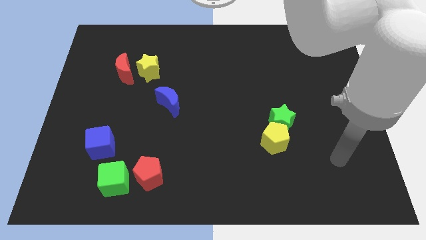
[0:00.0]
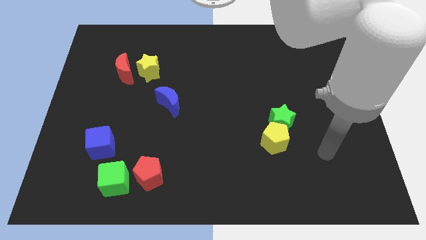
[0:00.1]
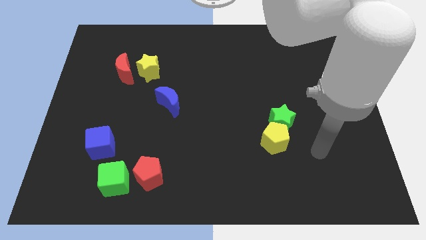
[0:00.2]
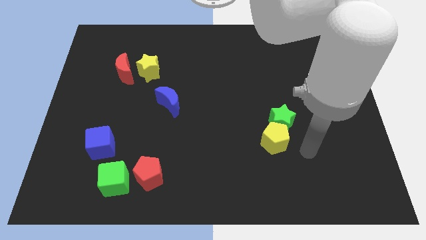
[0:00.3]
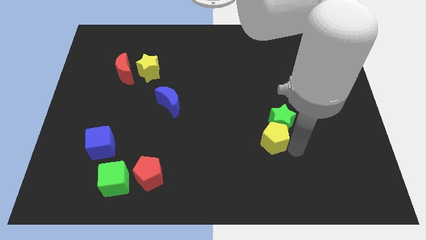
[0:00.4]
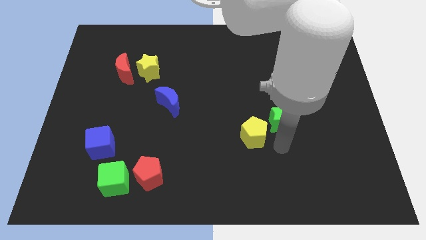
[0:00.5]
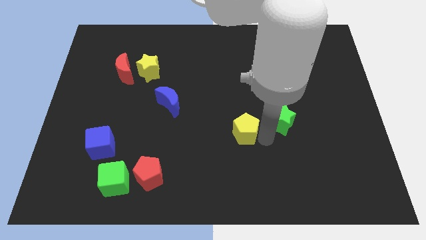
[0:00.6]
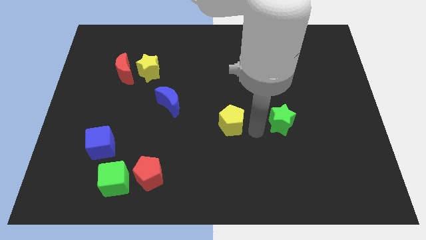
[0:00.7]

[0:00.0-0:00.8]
pull the green star apart from the yellow pentagon

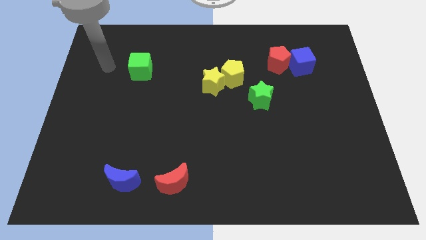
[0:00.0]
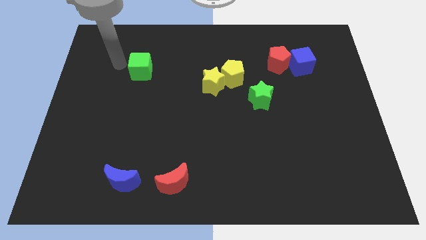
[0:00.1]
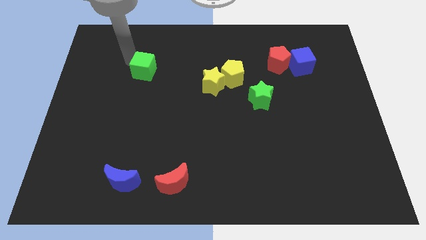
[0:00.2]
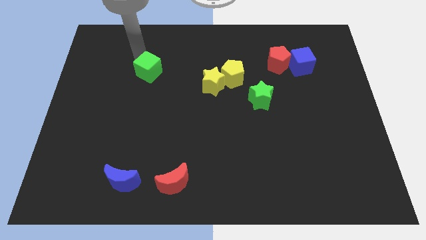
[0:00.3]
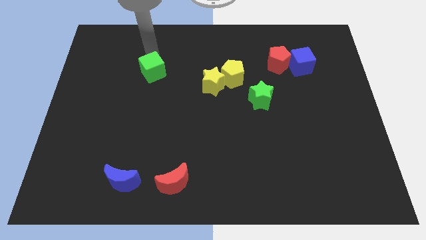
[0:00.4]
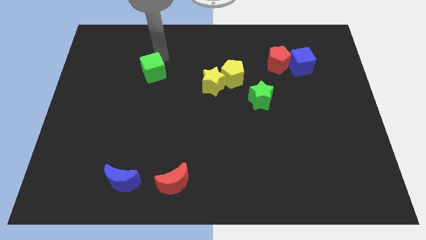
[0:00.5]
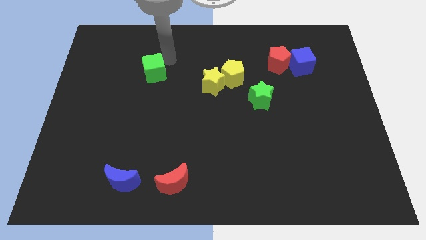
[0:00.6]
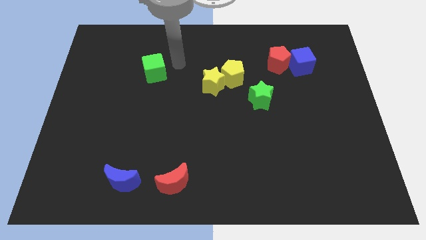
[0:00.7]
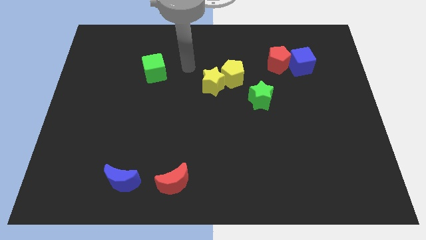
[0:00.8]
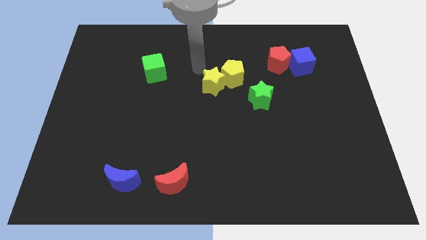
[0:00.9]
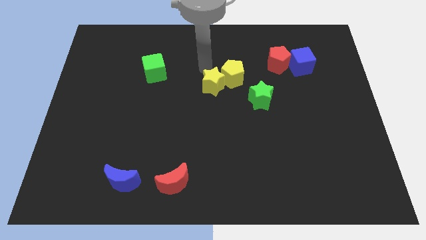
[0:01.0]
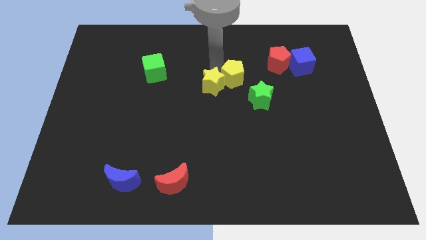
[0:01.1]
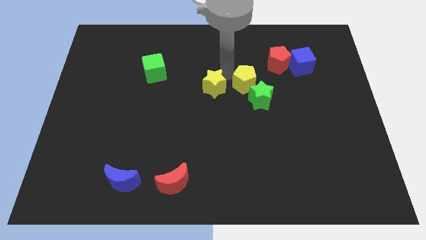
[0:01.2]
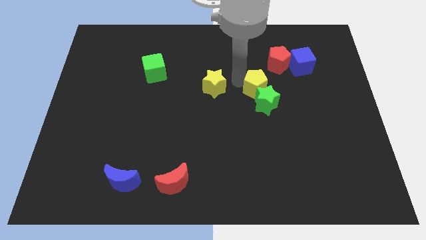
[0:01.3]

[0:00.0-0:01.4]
pull the yellow star apart from the yellow pentagon

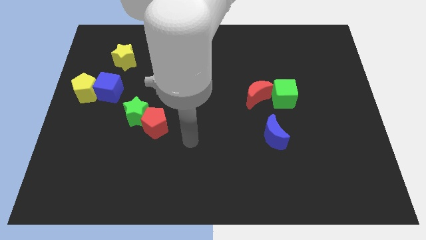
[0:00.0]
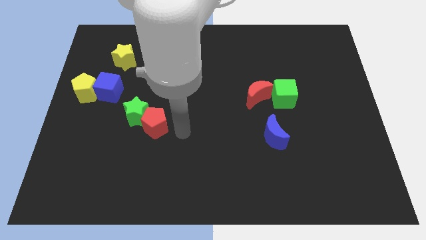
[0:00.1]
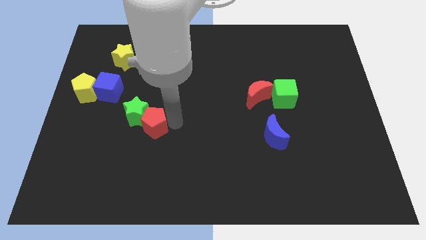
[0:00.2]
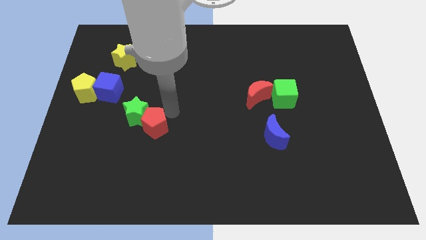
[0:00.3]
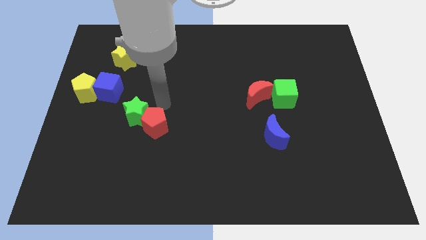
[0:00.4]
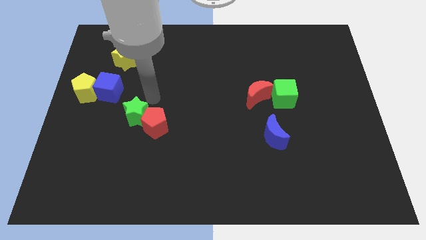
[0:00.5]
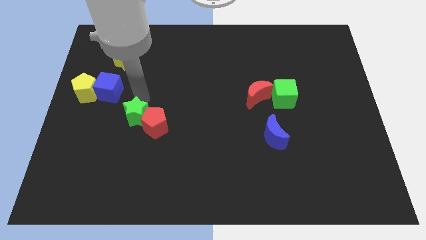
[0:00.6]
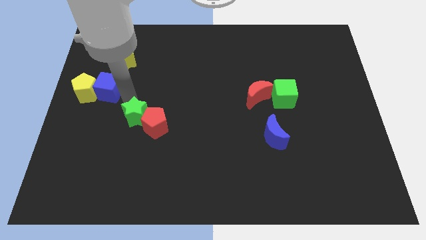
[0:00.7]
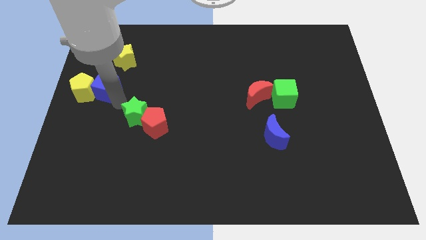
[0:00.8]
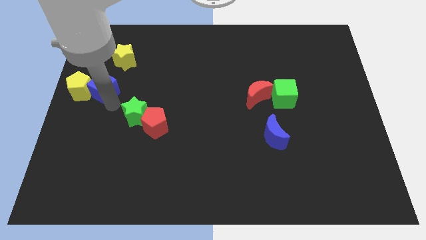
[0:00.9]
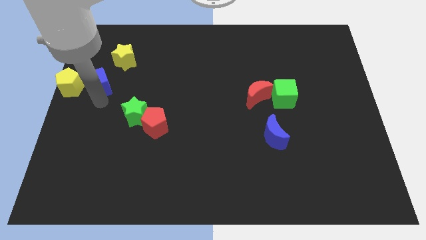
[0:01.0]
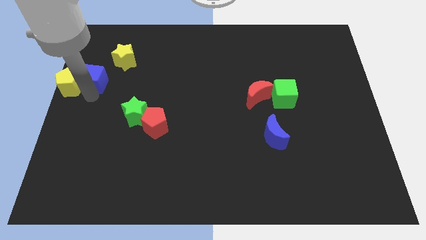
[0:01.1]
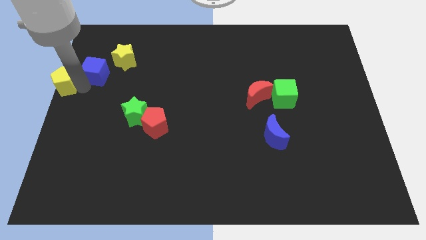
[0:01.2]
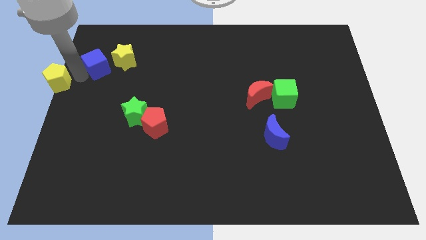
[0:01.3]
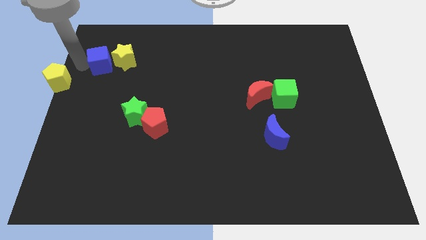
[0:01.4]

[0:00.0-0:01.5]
move the blue cube away from the yellow pentagon

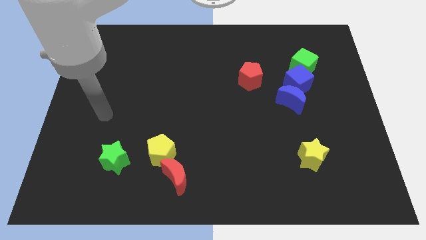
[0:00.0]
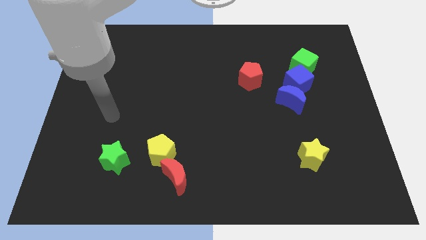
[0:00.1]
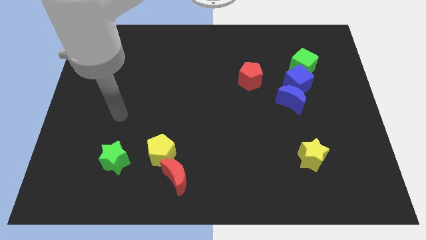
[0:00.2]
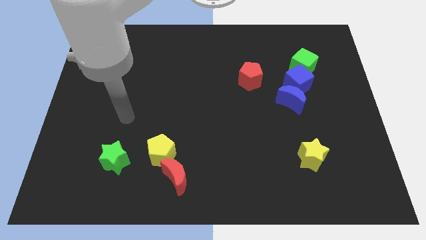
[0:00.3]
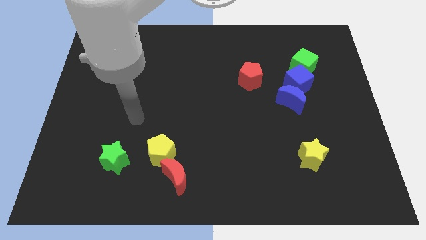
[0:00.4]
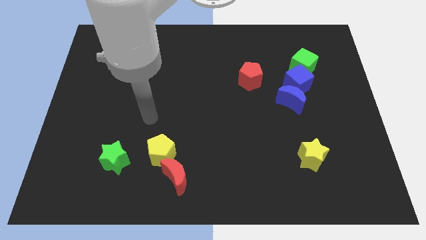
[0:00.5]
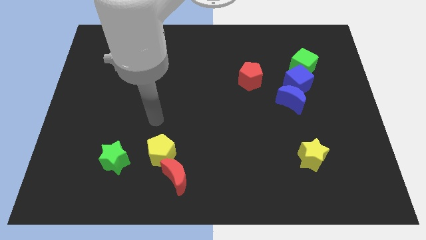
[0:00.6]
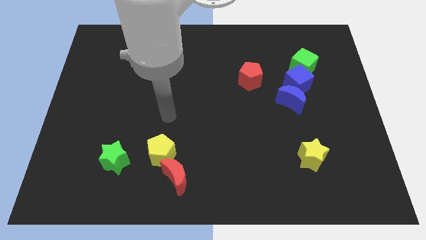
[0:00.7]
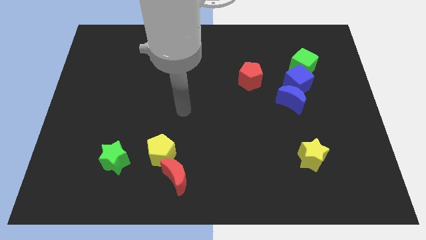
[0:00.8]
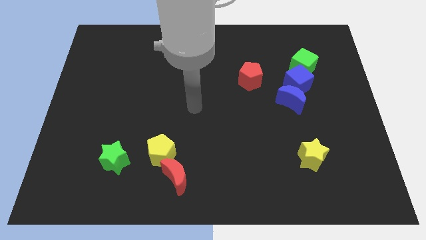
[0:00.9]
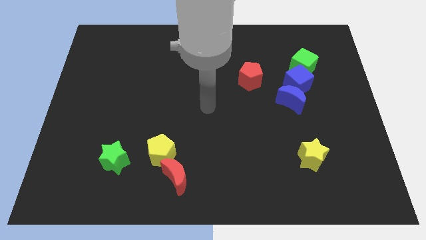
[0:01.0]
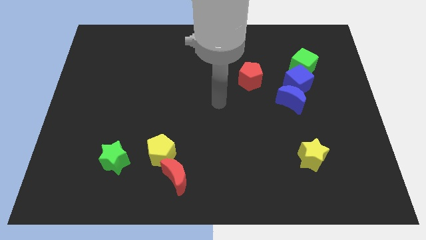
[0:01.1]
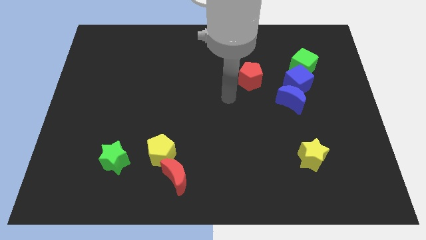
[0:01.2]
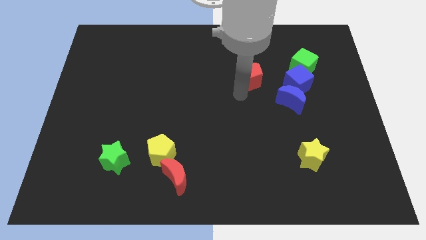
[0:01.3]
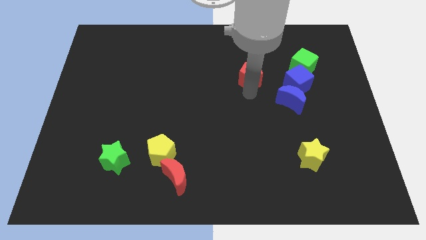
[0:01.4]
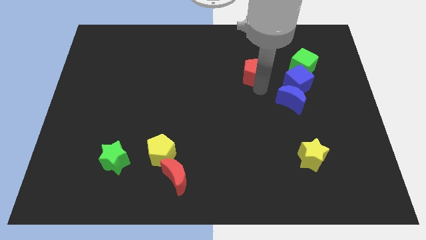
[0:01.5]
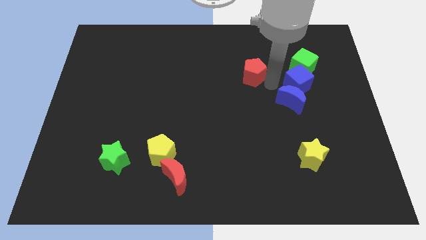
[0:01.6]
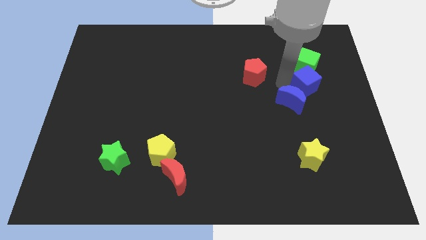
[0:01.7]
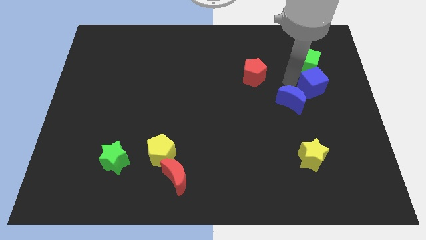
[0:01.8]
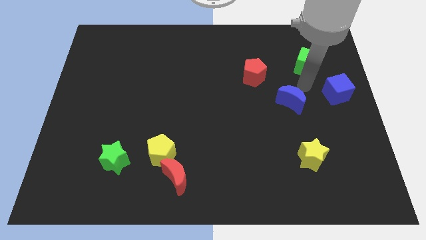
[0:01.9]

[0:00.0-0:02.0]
separate the blue moon from the blue cube

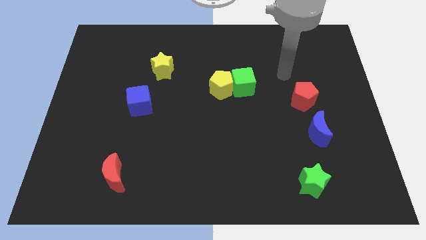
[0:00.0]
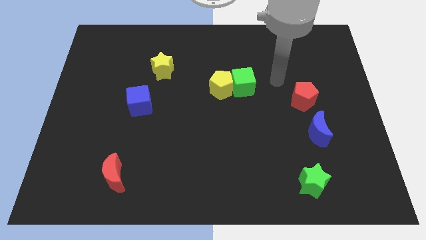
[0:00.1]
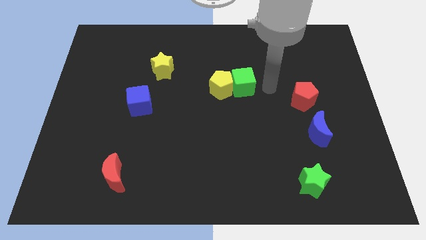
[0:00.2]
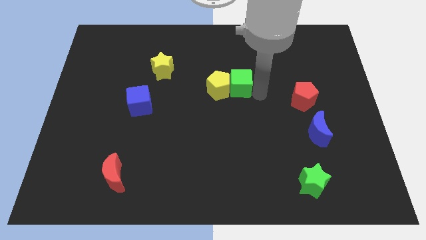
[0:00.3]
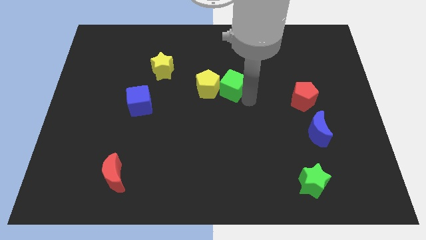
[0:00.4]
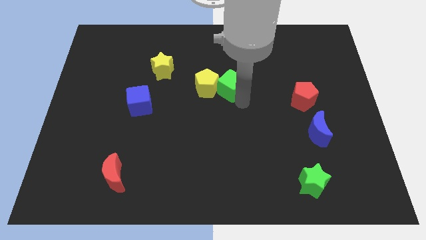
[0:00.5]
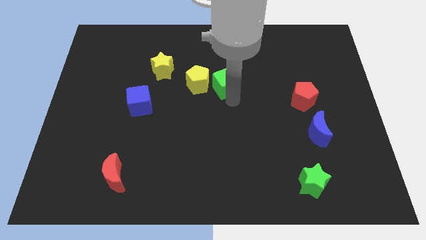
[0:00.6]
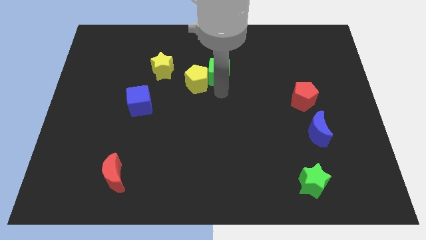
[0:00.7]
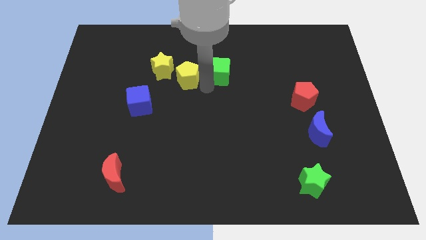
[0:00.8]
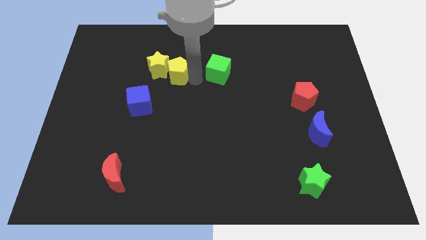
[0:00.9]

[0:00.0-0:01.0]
separate the green cube from the yellow pentagon

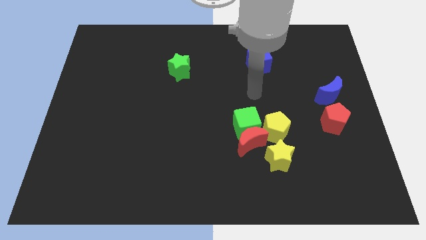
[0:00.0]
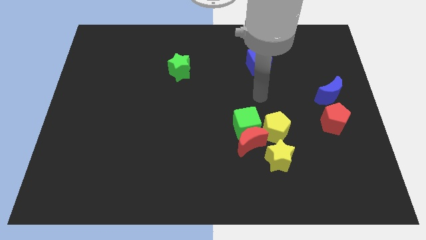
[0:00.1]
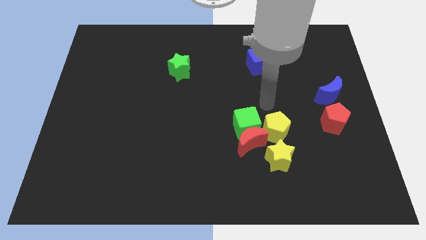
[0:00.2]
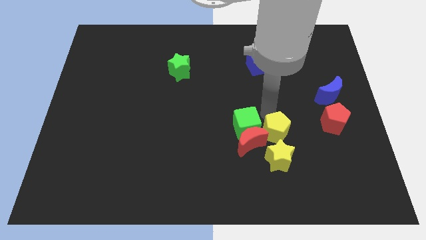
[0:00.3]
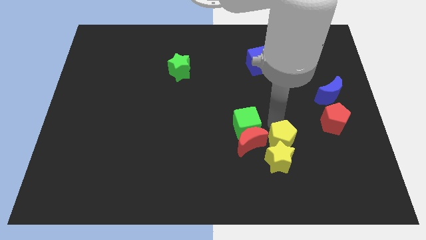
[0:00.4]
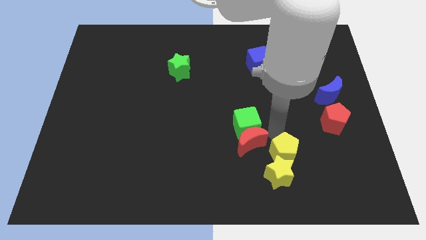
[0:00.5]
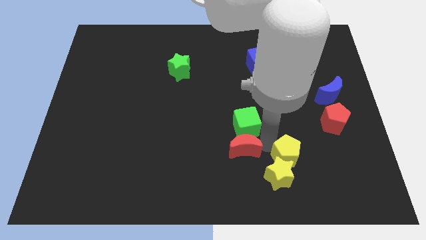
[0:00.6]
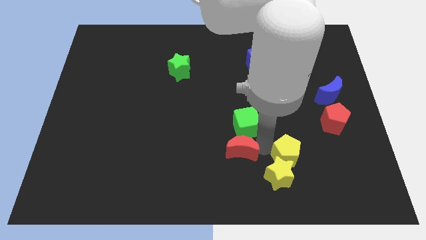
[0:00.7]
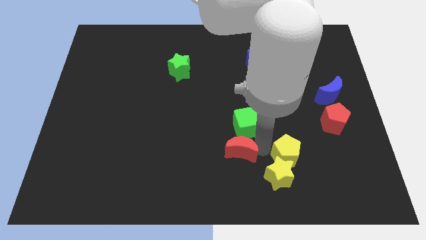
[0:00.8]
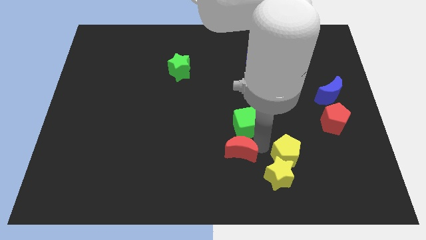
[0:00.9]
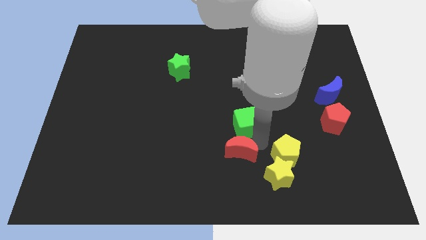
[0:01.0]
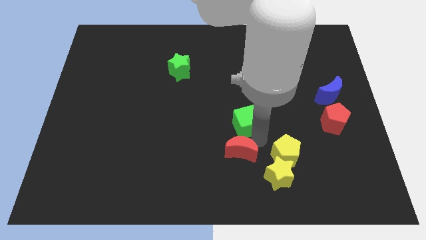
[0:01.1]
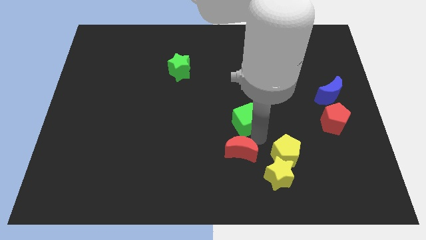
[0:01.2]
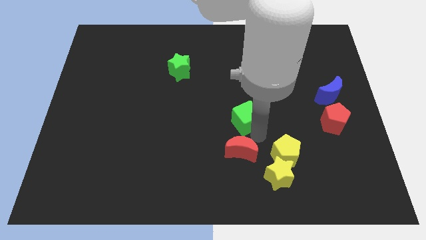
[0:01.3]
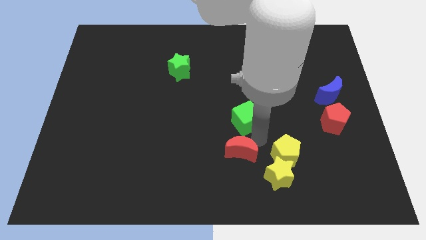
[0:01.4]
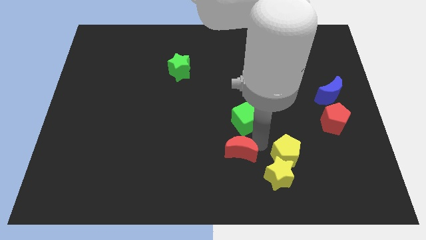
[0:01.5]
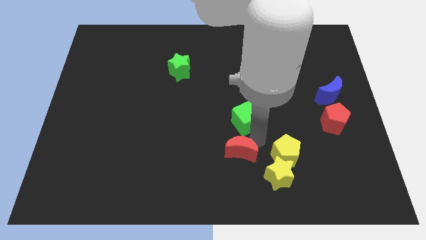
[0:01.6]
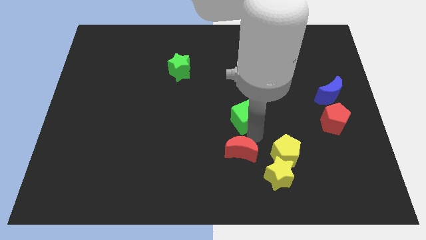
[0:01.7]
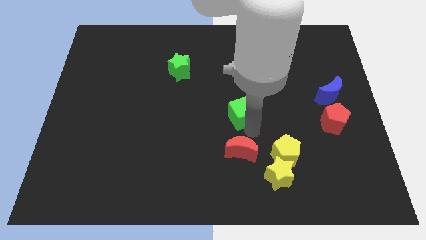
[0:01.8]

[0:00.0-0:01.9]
move the green cube away from the red moon and yellow pentagon

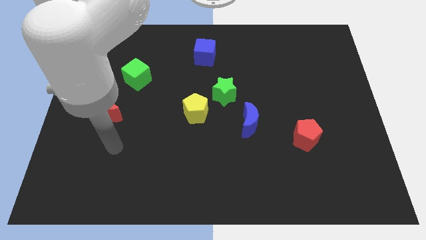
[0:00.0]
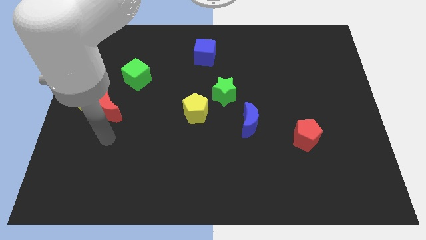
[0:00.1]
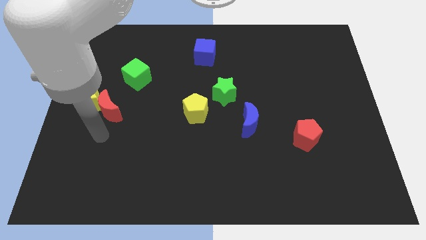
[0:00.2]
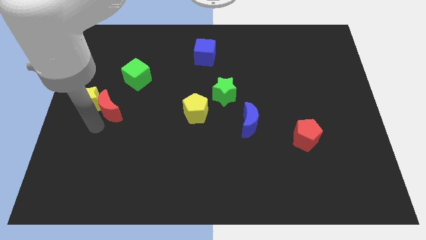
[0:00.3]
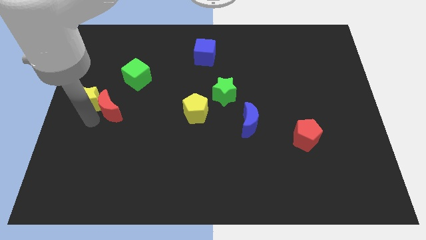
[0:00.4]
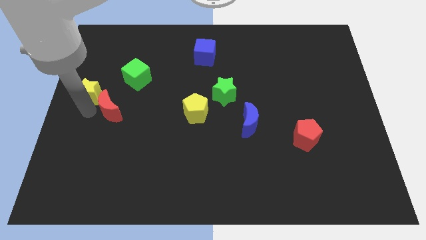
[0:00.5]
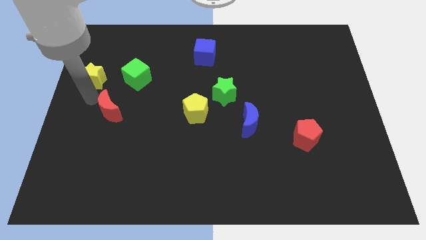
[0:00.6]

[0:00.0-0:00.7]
separate the red moon from the yellow star
